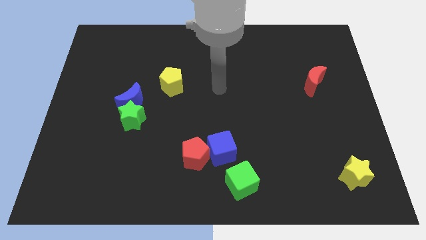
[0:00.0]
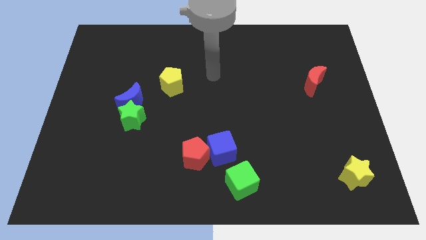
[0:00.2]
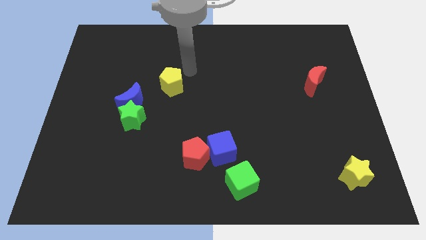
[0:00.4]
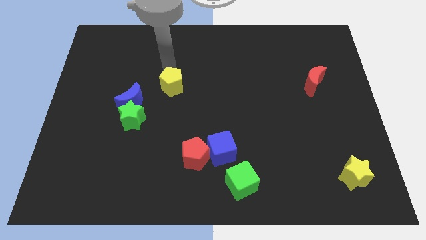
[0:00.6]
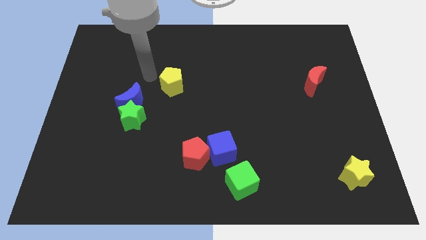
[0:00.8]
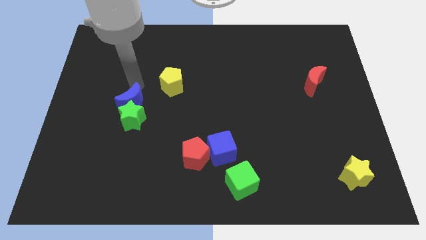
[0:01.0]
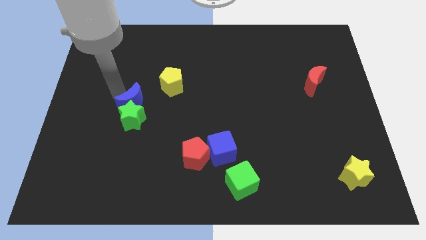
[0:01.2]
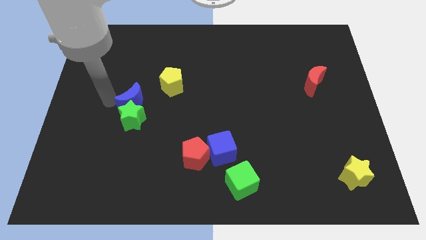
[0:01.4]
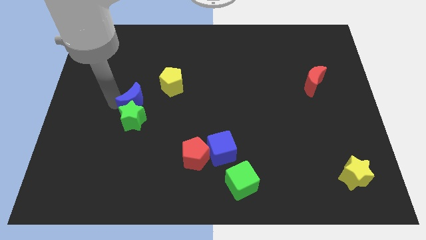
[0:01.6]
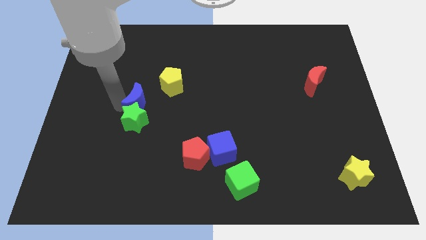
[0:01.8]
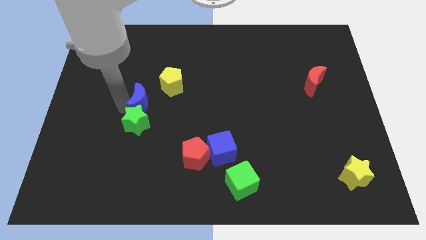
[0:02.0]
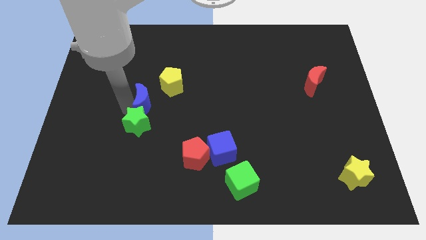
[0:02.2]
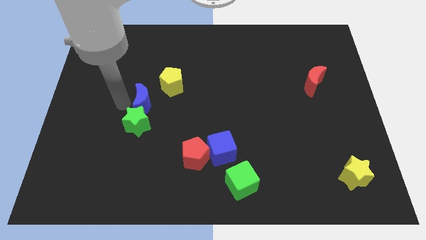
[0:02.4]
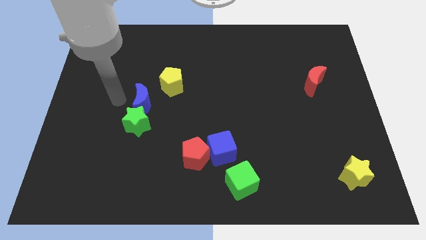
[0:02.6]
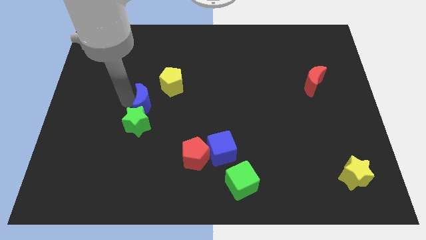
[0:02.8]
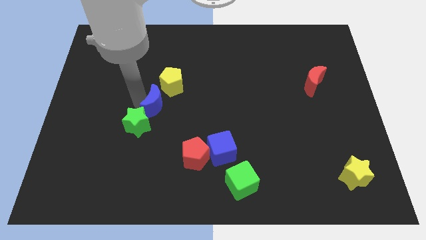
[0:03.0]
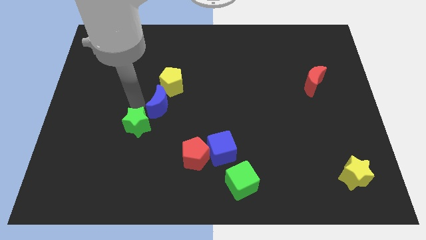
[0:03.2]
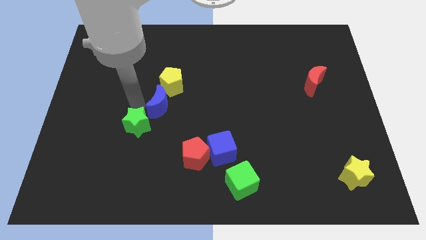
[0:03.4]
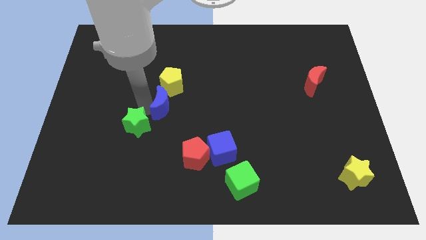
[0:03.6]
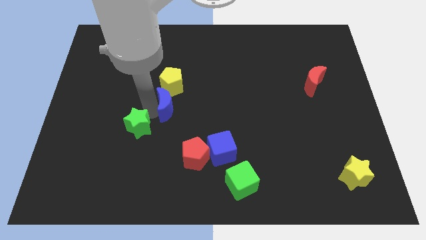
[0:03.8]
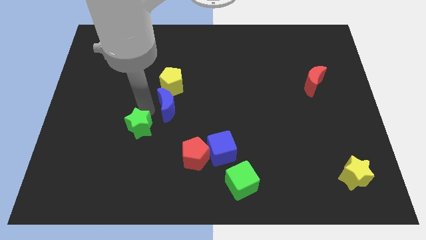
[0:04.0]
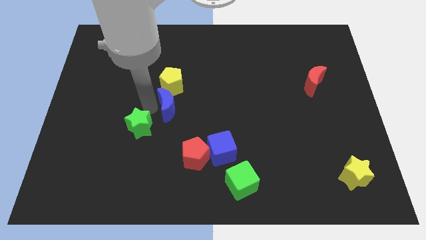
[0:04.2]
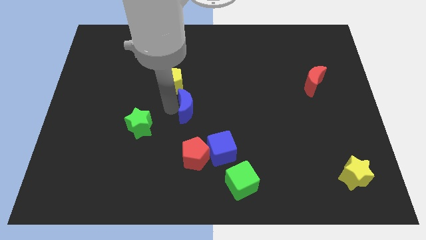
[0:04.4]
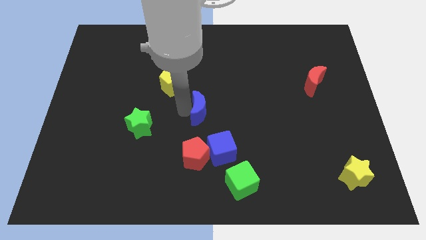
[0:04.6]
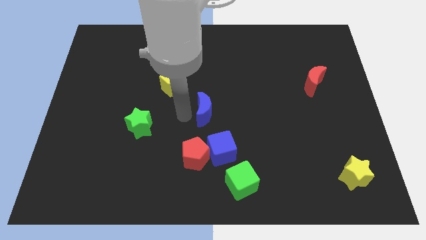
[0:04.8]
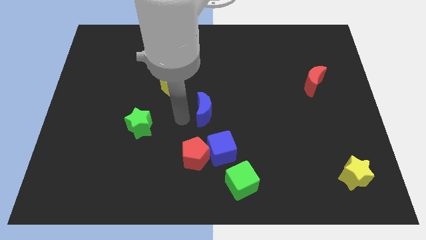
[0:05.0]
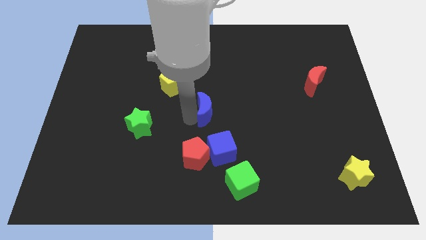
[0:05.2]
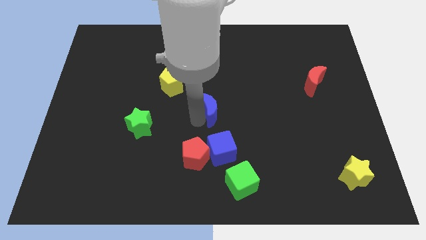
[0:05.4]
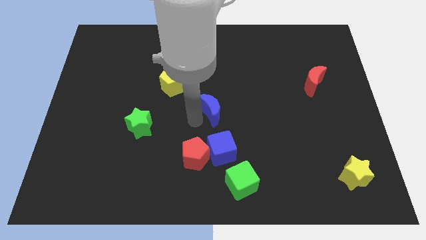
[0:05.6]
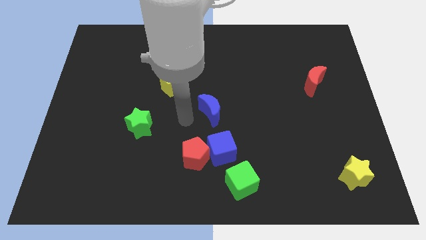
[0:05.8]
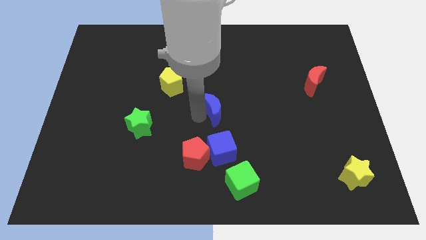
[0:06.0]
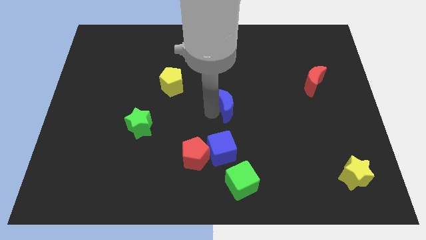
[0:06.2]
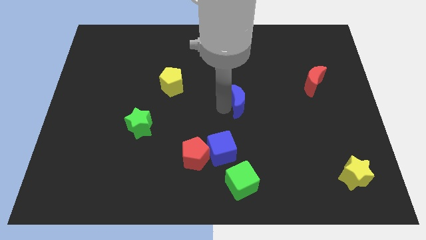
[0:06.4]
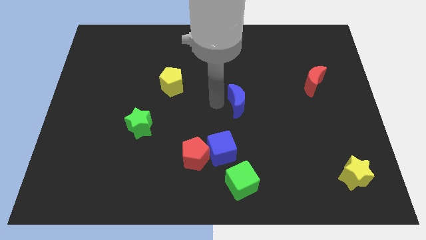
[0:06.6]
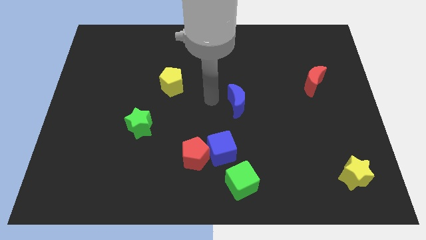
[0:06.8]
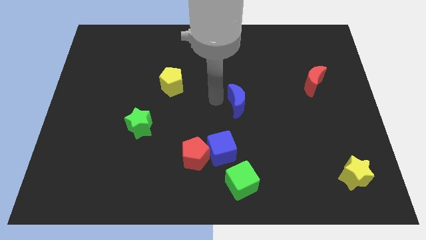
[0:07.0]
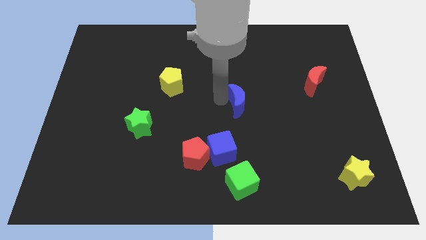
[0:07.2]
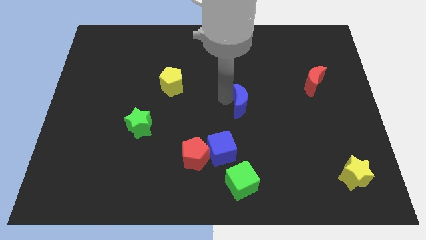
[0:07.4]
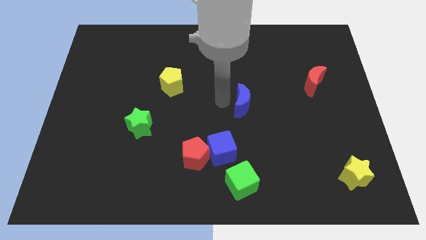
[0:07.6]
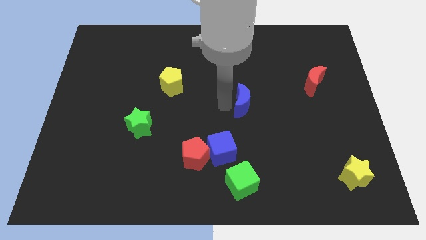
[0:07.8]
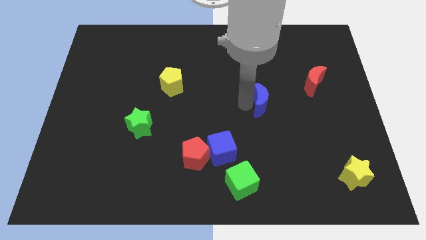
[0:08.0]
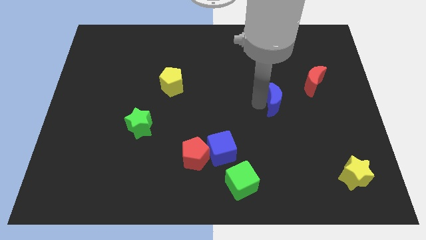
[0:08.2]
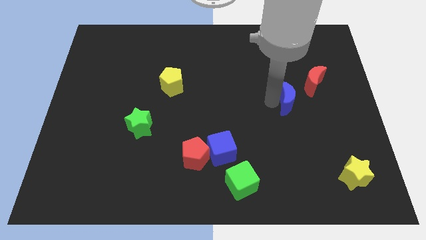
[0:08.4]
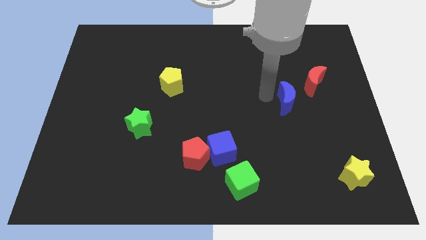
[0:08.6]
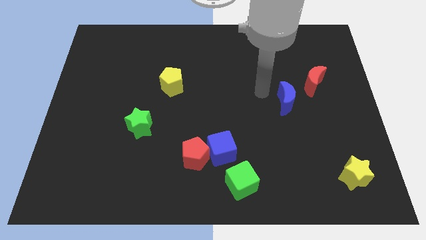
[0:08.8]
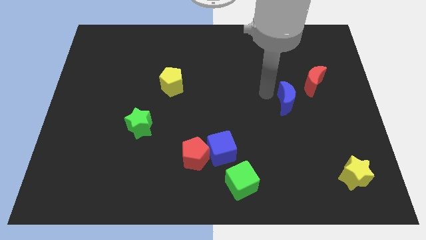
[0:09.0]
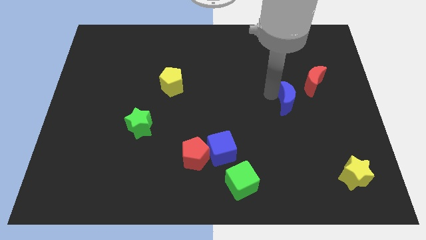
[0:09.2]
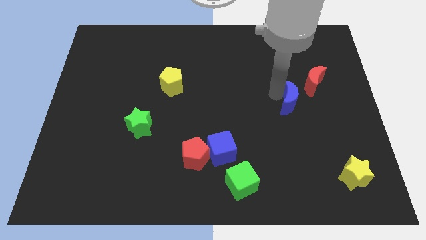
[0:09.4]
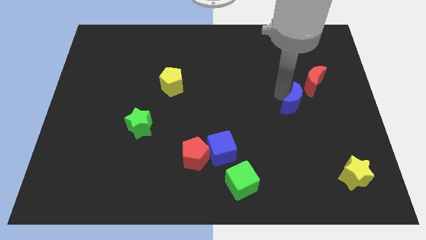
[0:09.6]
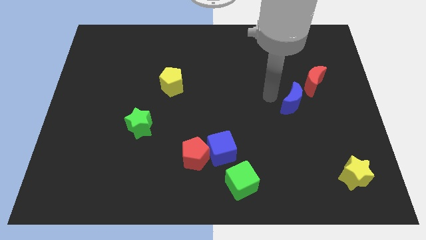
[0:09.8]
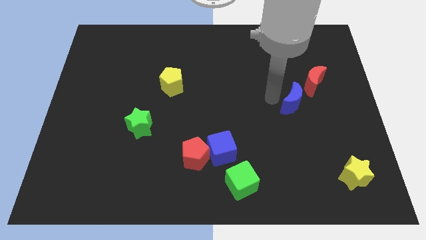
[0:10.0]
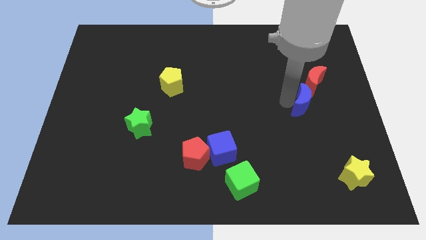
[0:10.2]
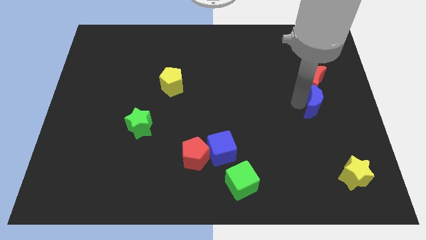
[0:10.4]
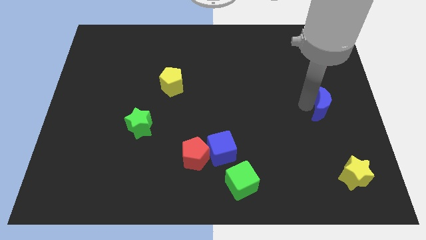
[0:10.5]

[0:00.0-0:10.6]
push the blue moon to the right side of the board

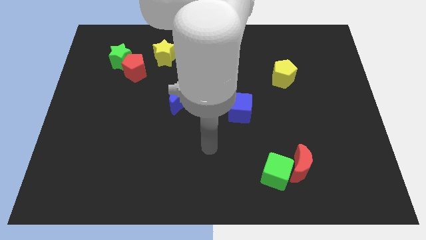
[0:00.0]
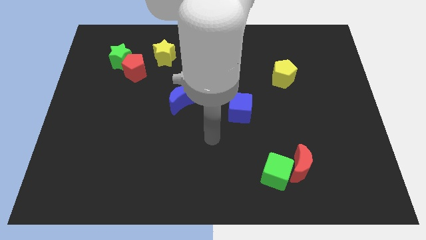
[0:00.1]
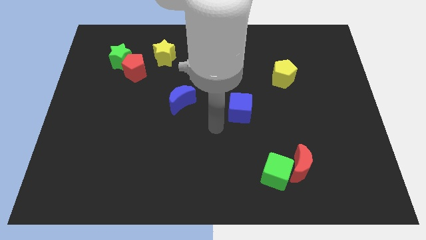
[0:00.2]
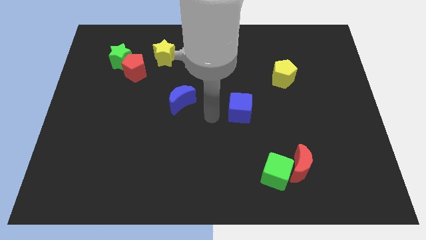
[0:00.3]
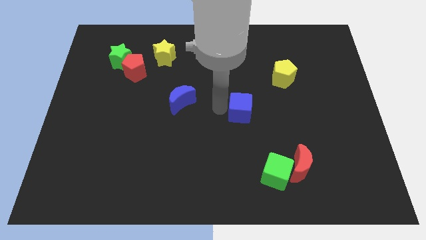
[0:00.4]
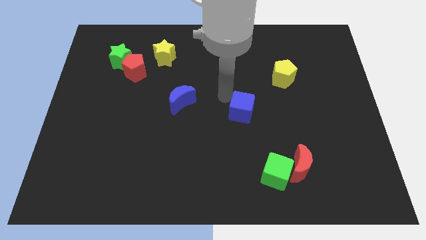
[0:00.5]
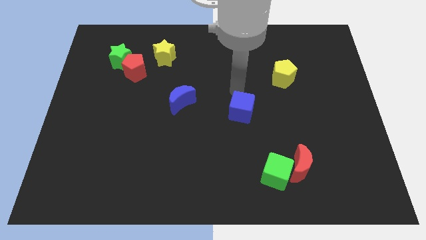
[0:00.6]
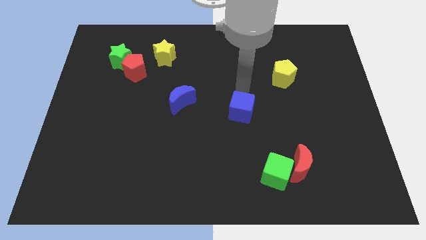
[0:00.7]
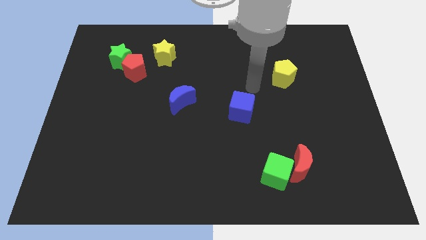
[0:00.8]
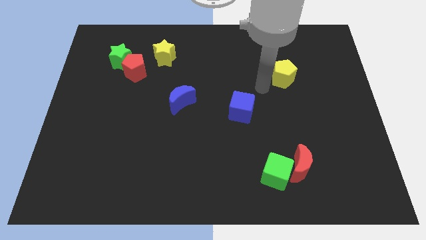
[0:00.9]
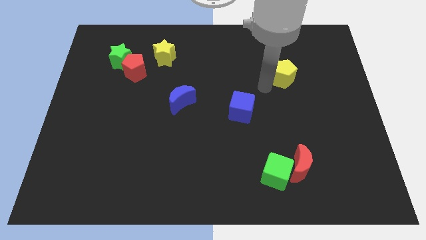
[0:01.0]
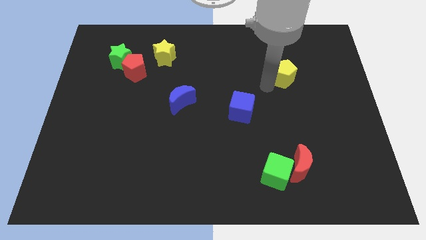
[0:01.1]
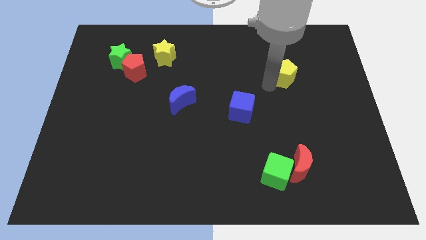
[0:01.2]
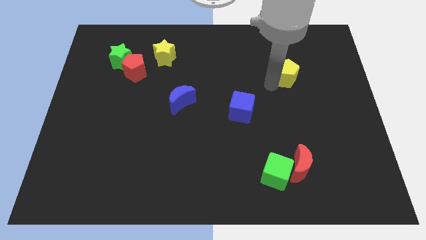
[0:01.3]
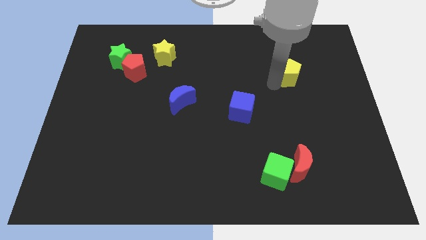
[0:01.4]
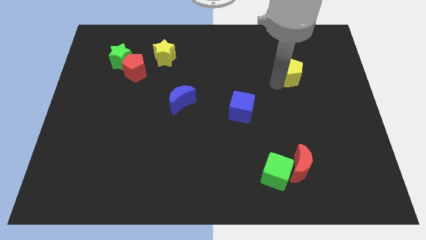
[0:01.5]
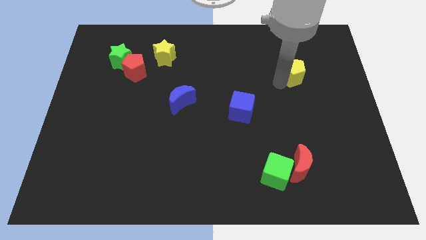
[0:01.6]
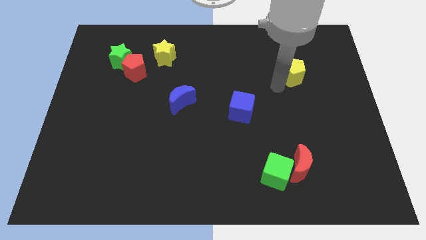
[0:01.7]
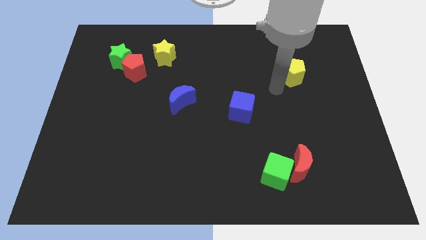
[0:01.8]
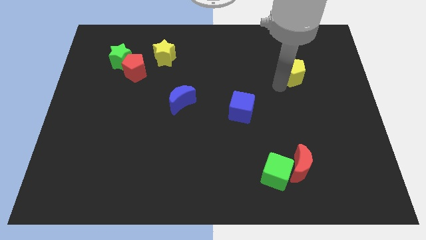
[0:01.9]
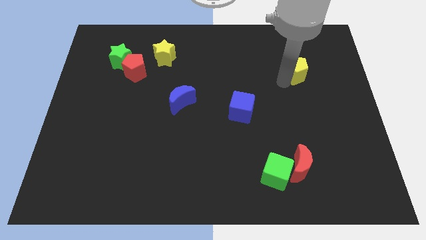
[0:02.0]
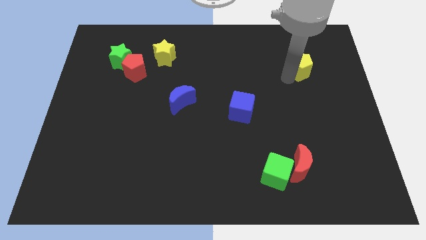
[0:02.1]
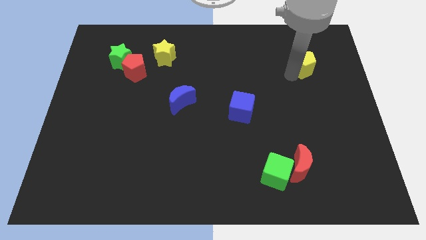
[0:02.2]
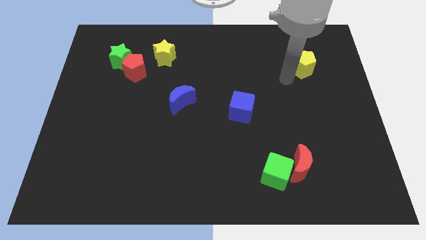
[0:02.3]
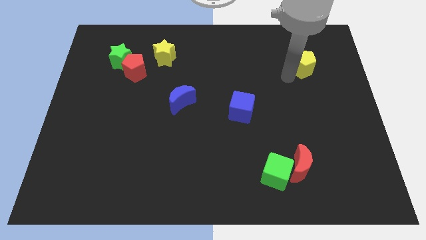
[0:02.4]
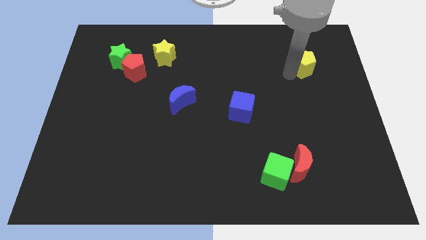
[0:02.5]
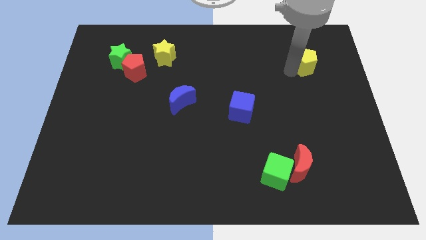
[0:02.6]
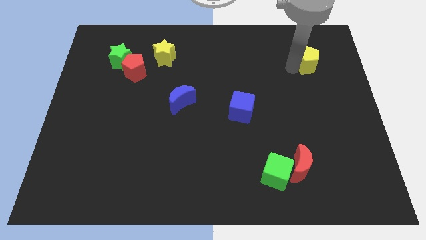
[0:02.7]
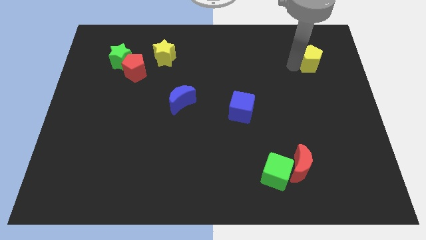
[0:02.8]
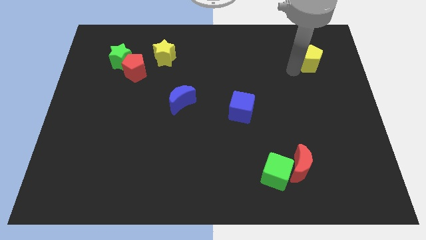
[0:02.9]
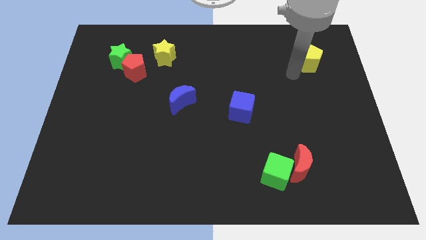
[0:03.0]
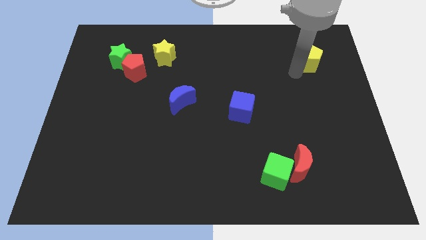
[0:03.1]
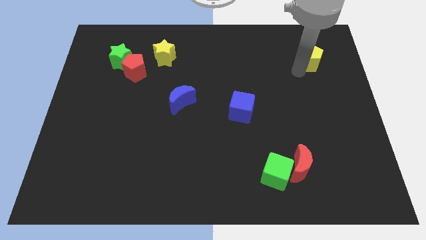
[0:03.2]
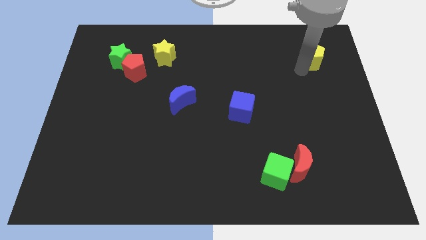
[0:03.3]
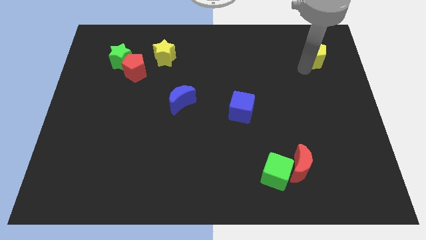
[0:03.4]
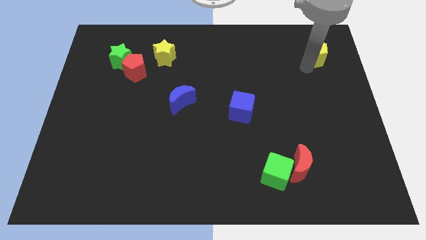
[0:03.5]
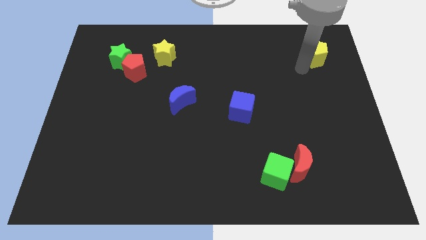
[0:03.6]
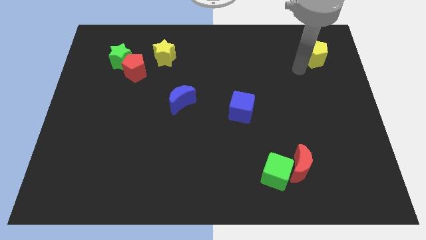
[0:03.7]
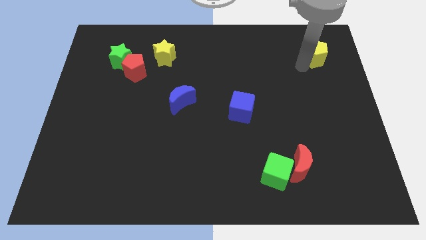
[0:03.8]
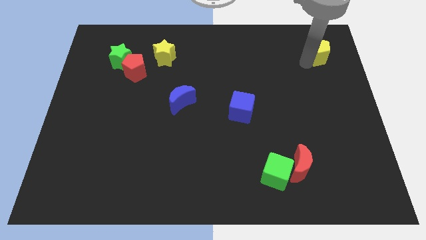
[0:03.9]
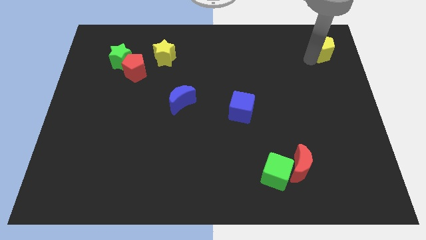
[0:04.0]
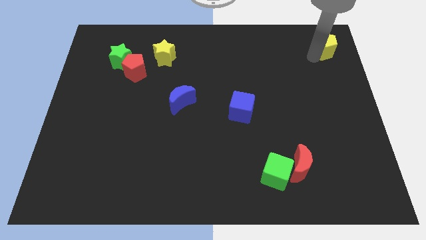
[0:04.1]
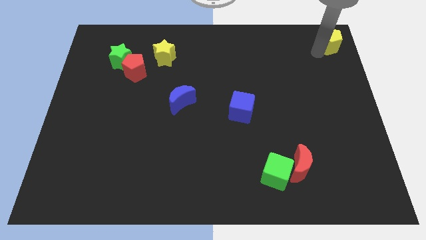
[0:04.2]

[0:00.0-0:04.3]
move the yellow pentagon to the upper right corner
